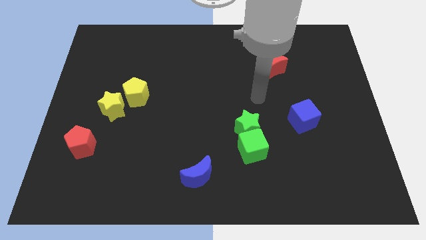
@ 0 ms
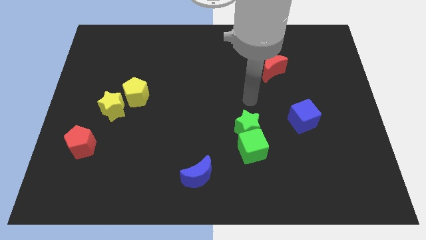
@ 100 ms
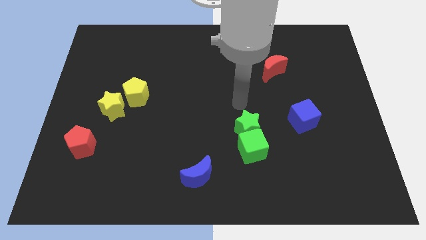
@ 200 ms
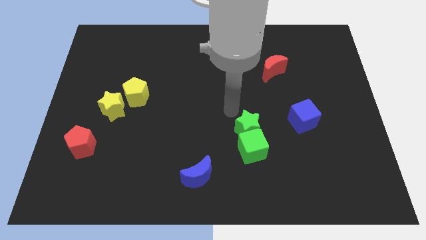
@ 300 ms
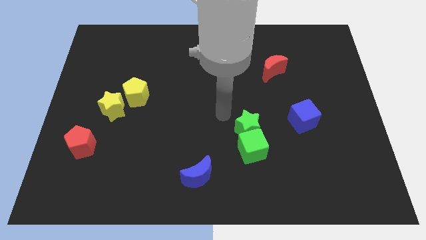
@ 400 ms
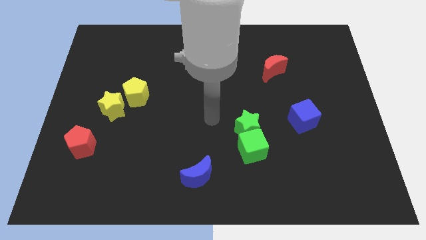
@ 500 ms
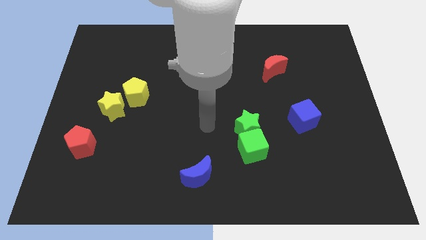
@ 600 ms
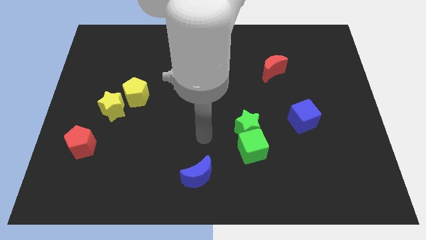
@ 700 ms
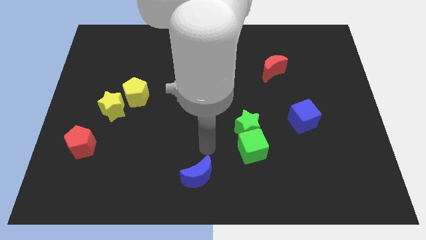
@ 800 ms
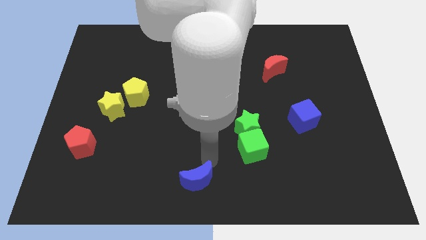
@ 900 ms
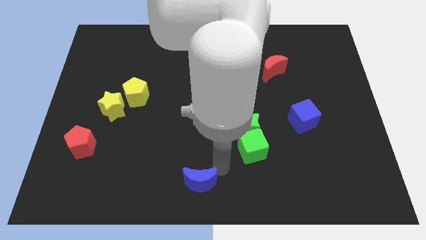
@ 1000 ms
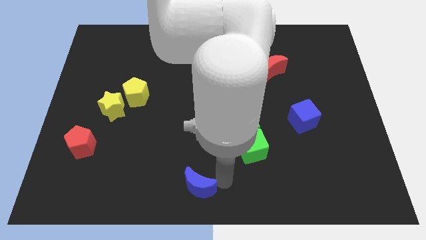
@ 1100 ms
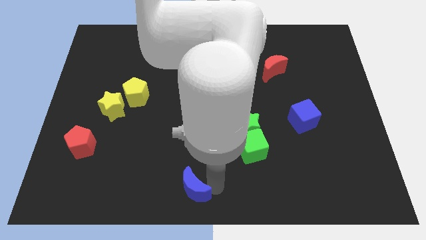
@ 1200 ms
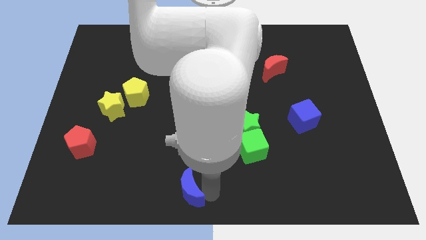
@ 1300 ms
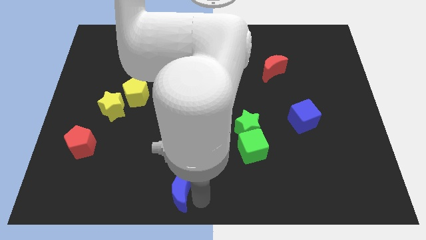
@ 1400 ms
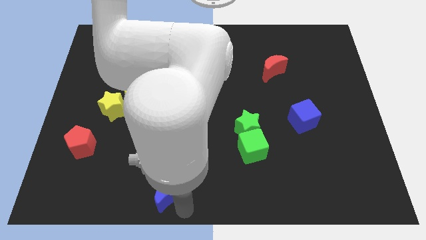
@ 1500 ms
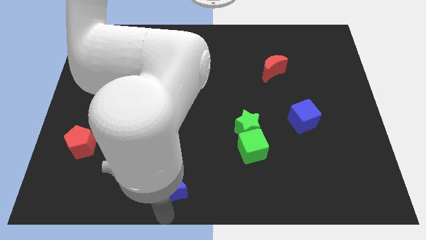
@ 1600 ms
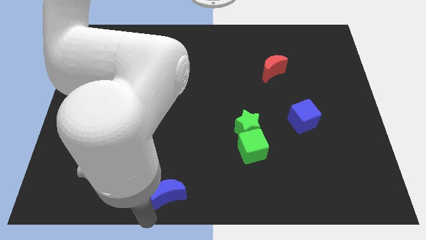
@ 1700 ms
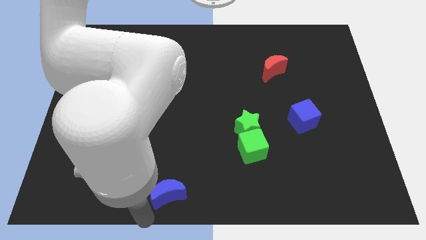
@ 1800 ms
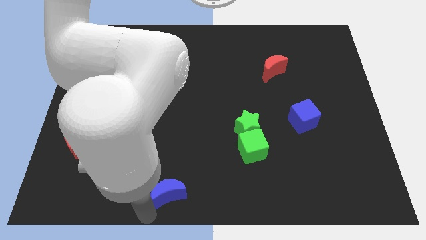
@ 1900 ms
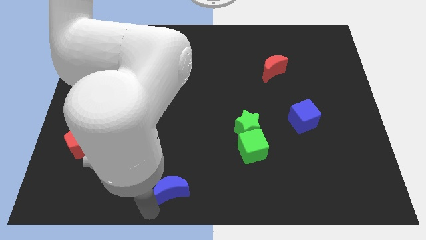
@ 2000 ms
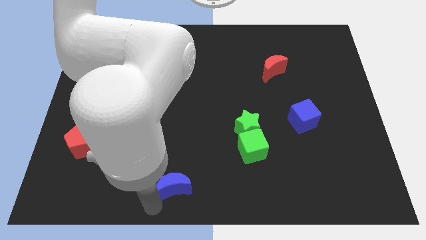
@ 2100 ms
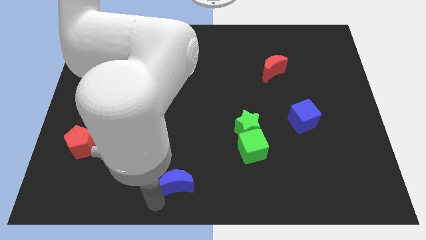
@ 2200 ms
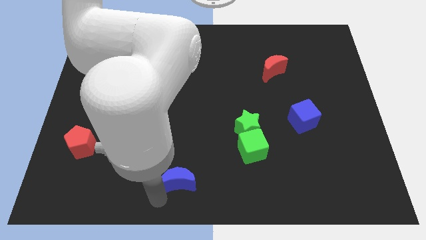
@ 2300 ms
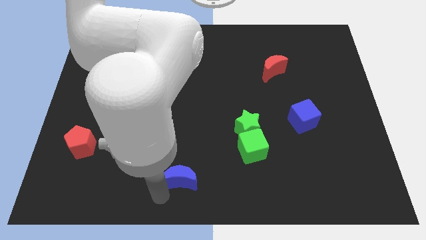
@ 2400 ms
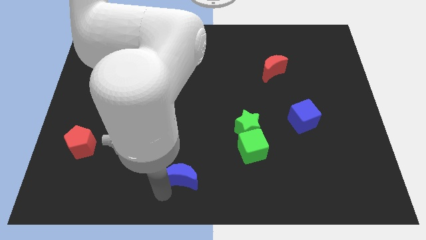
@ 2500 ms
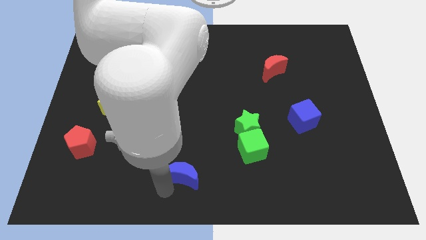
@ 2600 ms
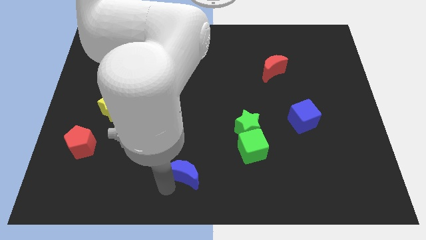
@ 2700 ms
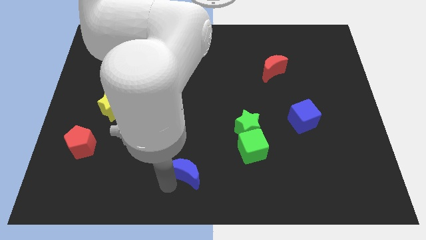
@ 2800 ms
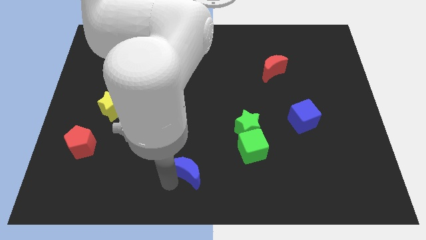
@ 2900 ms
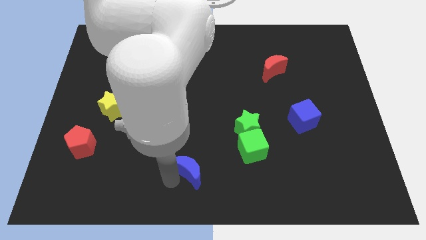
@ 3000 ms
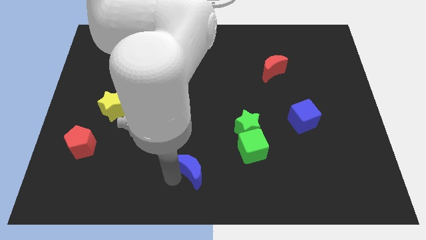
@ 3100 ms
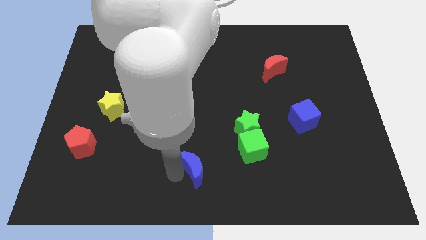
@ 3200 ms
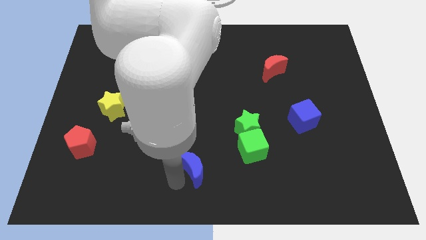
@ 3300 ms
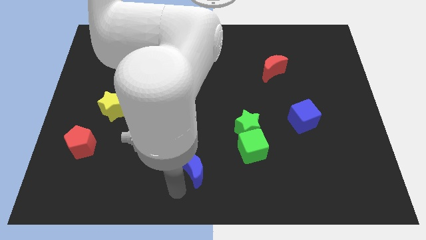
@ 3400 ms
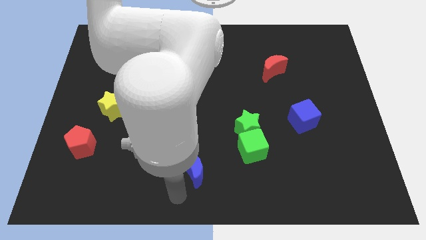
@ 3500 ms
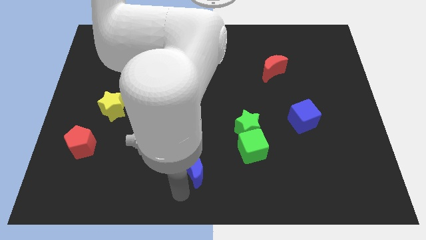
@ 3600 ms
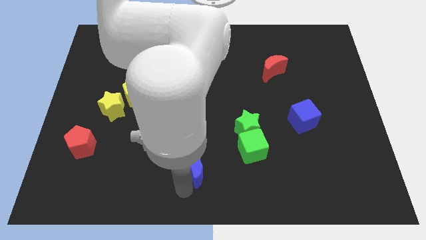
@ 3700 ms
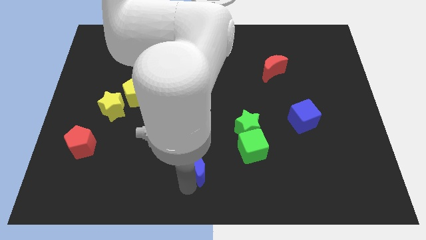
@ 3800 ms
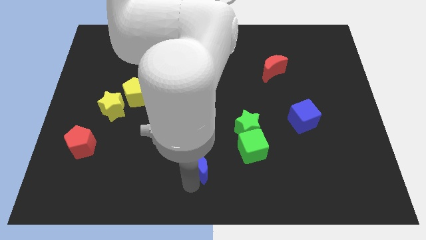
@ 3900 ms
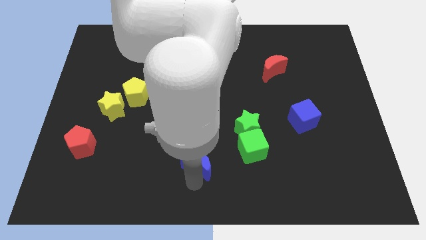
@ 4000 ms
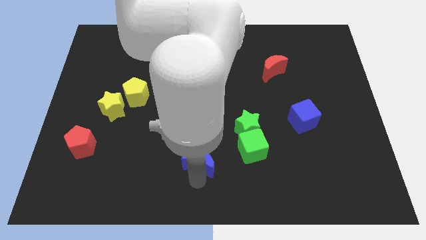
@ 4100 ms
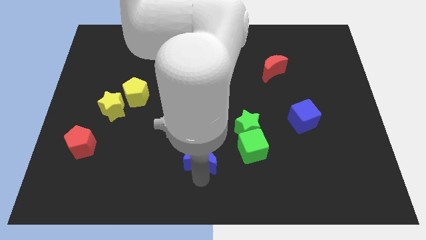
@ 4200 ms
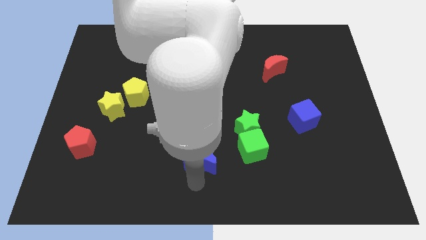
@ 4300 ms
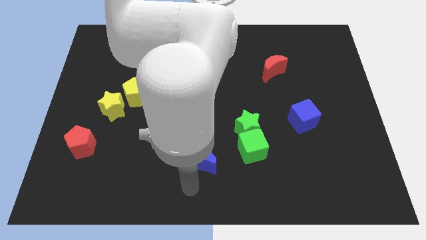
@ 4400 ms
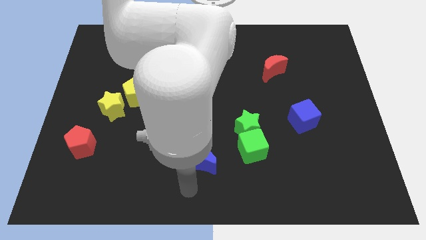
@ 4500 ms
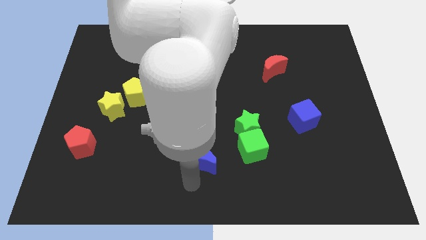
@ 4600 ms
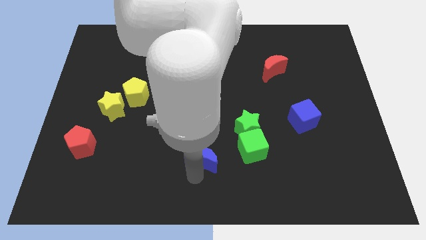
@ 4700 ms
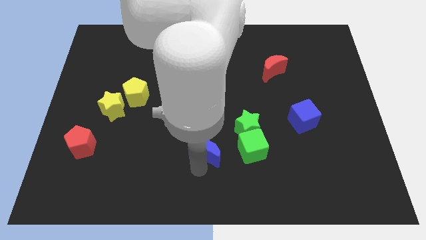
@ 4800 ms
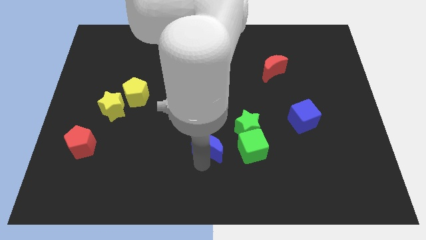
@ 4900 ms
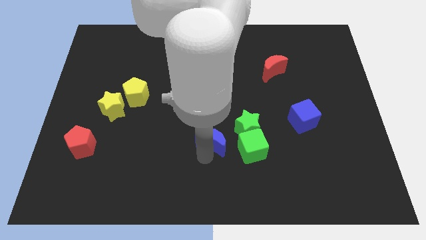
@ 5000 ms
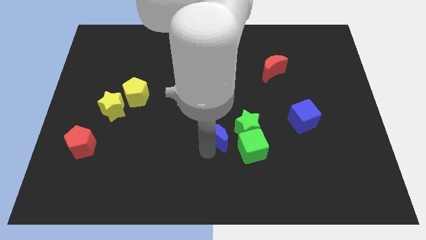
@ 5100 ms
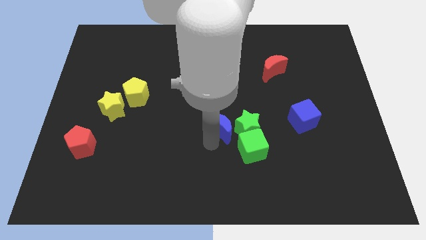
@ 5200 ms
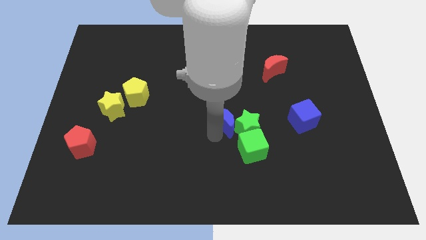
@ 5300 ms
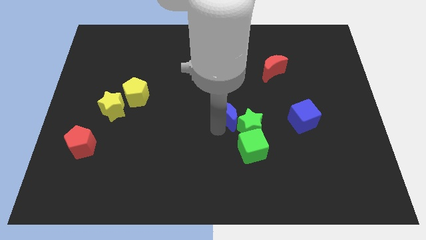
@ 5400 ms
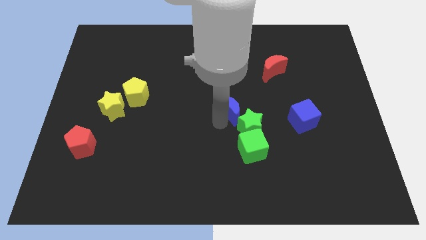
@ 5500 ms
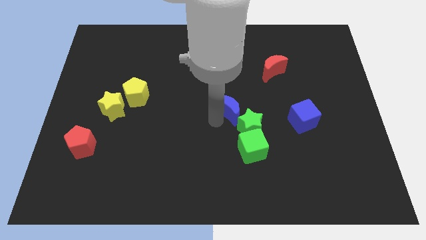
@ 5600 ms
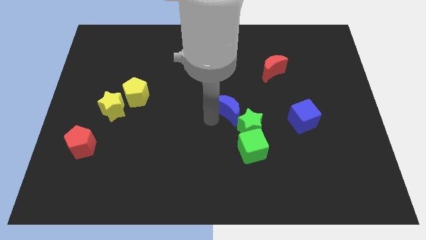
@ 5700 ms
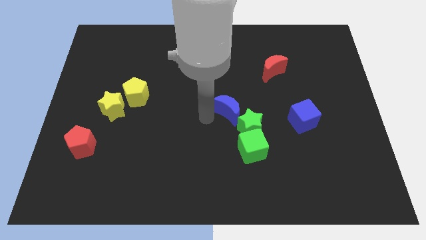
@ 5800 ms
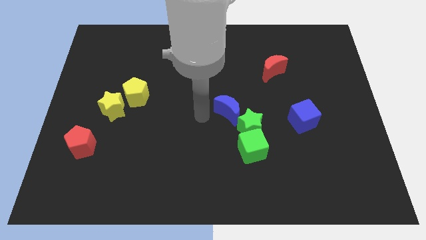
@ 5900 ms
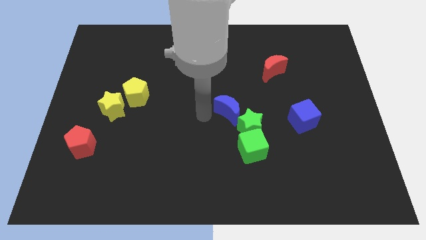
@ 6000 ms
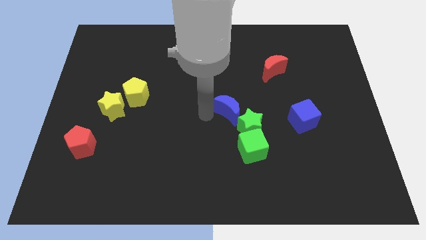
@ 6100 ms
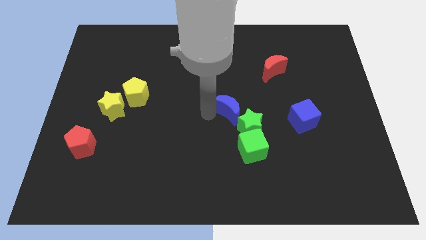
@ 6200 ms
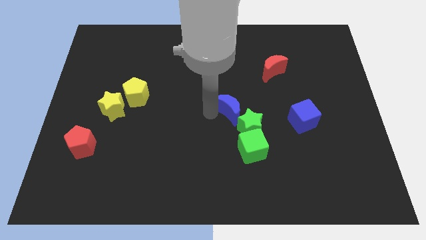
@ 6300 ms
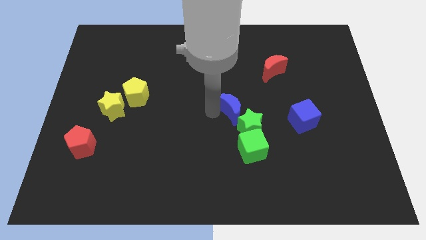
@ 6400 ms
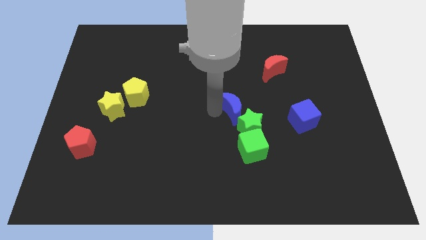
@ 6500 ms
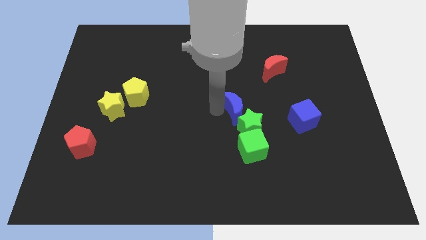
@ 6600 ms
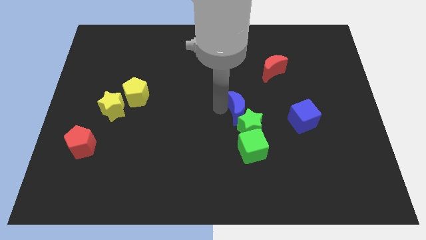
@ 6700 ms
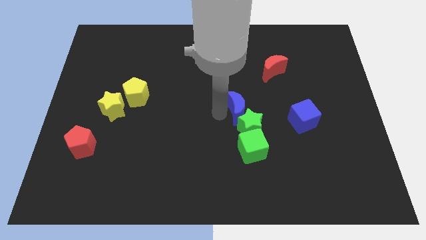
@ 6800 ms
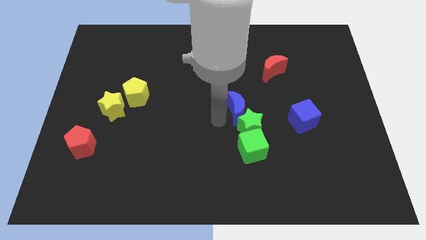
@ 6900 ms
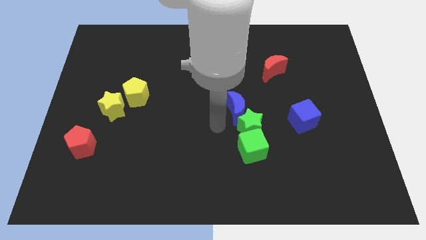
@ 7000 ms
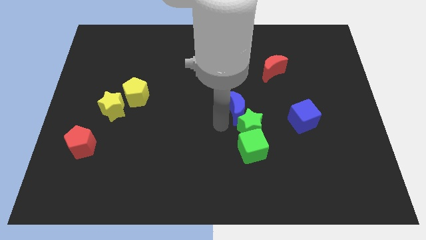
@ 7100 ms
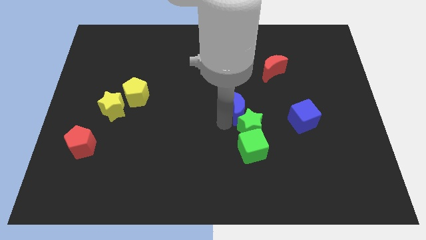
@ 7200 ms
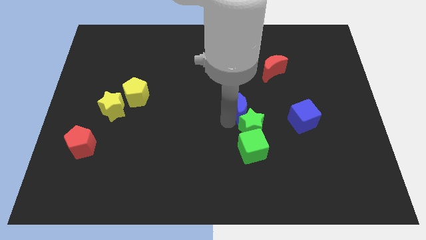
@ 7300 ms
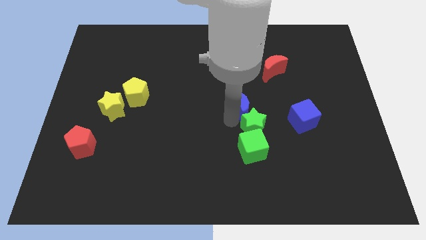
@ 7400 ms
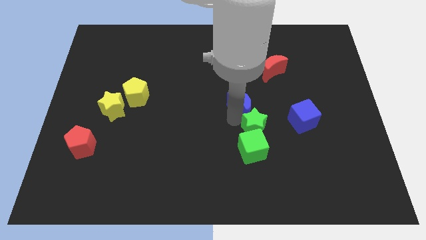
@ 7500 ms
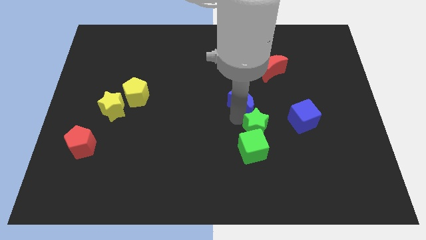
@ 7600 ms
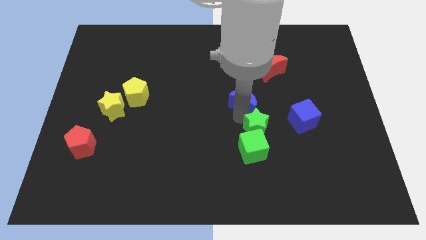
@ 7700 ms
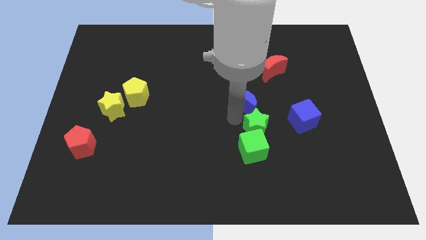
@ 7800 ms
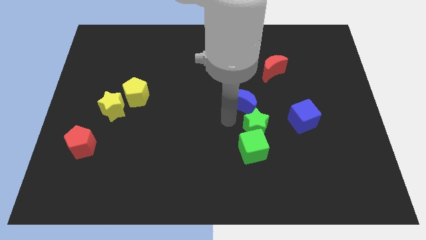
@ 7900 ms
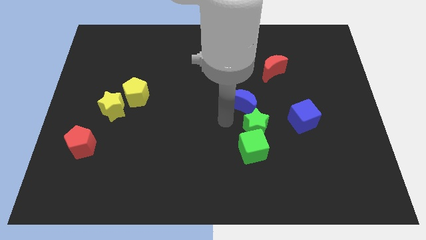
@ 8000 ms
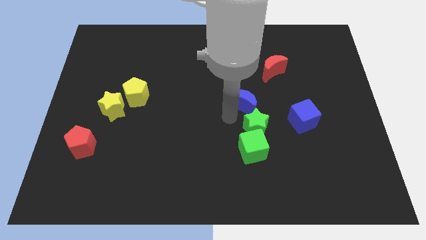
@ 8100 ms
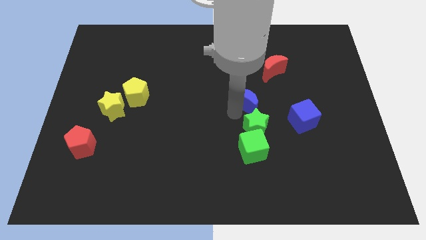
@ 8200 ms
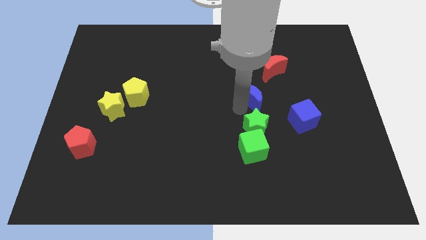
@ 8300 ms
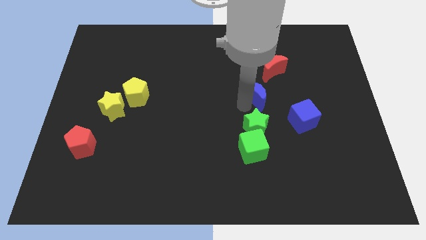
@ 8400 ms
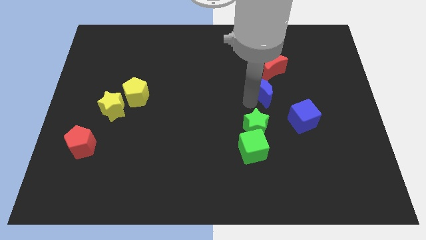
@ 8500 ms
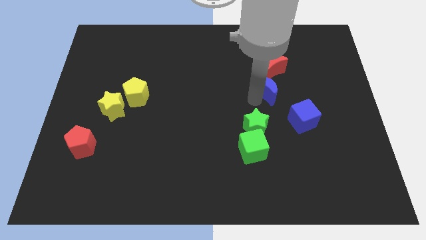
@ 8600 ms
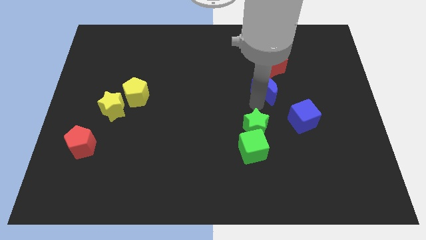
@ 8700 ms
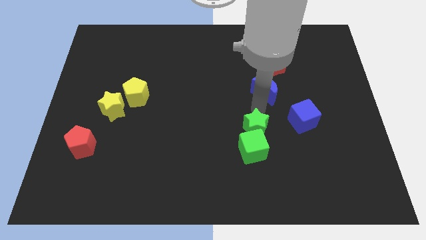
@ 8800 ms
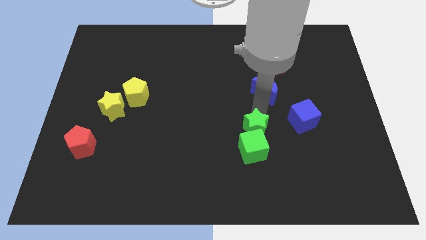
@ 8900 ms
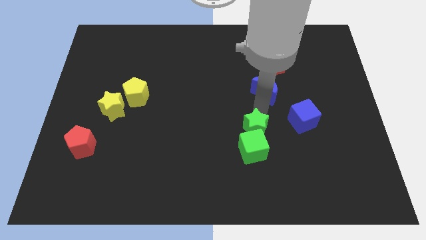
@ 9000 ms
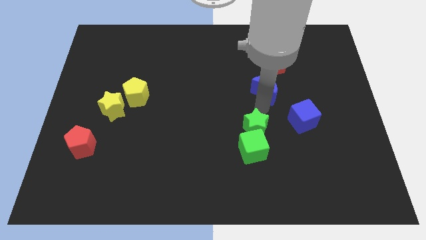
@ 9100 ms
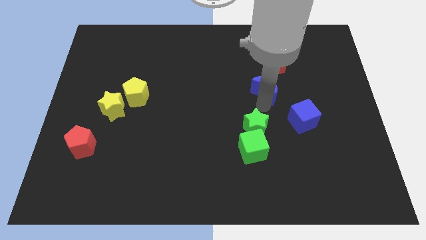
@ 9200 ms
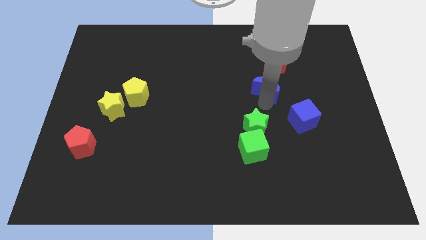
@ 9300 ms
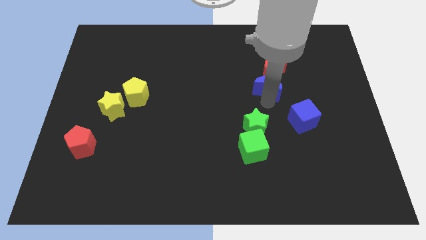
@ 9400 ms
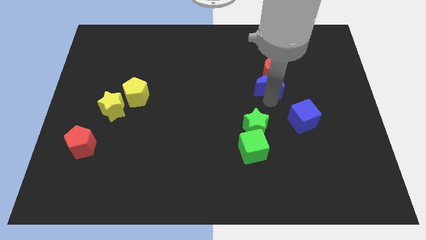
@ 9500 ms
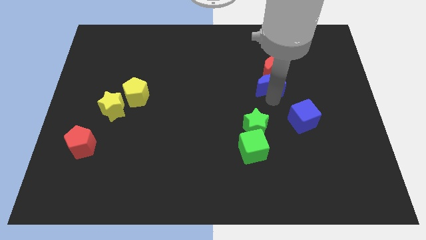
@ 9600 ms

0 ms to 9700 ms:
put the blue moon close to the red moon
